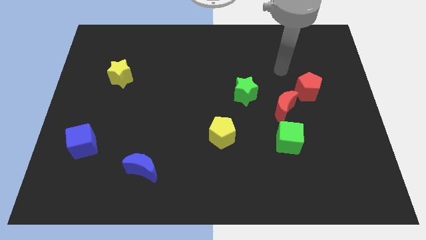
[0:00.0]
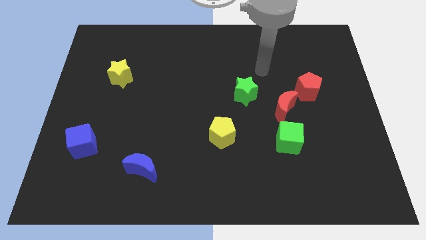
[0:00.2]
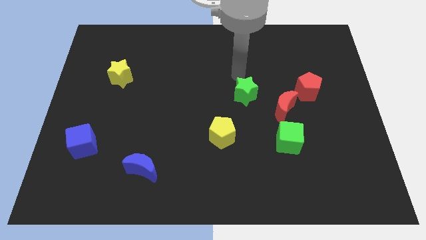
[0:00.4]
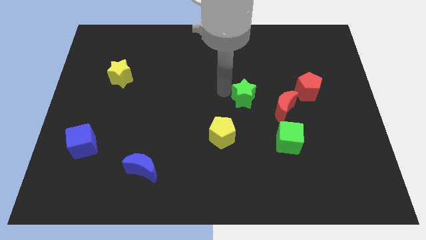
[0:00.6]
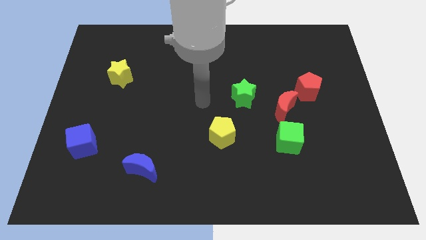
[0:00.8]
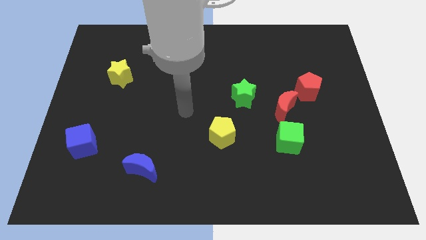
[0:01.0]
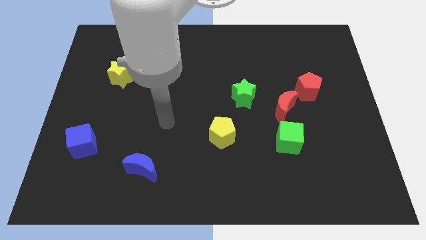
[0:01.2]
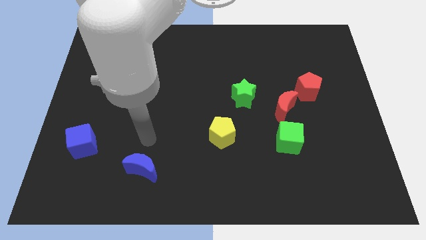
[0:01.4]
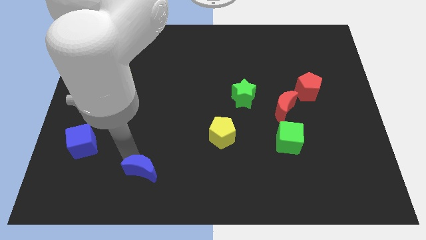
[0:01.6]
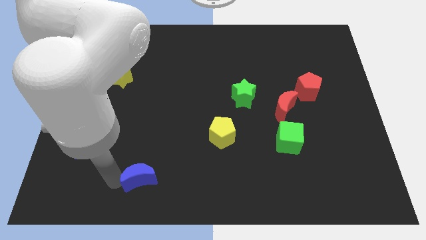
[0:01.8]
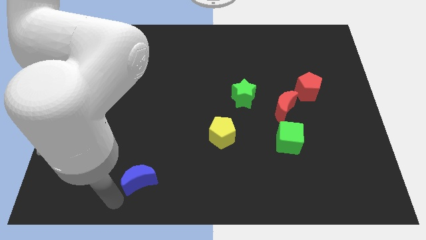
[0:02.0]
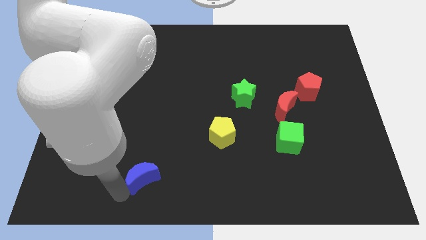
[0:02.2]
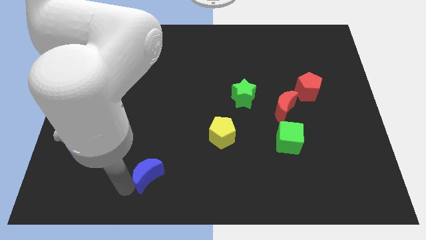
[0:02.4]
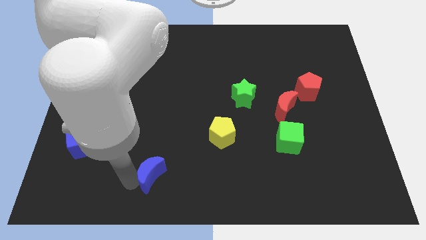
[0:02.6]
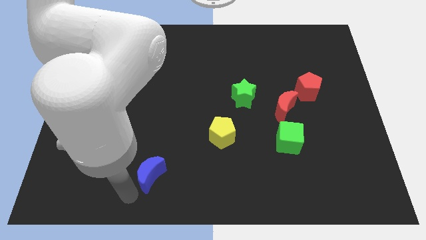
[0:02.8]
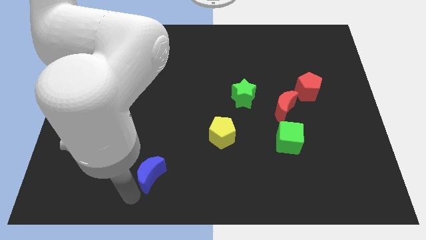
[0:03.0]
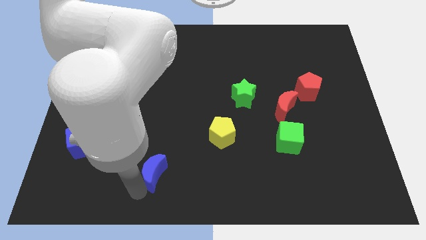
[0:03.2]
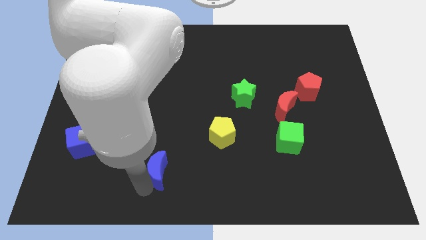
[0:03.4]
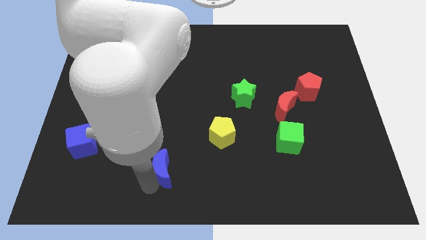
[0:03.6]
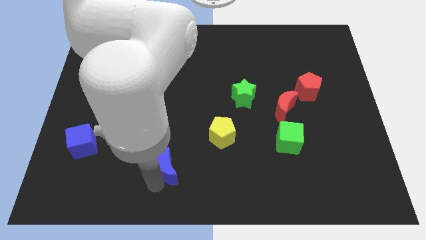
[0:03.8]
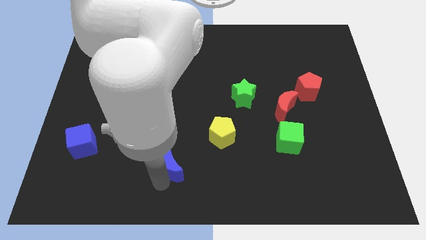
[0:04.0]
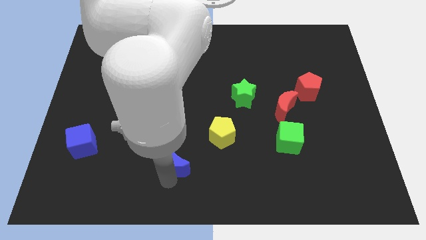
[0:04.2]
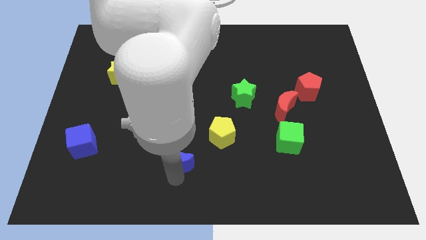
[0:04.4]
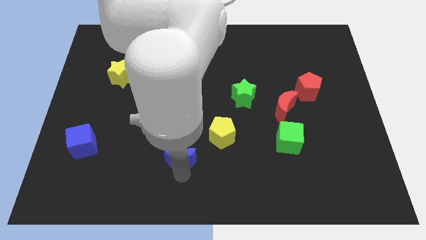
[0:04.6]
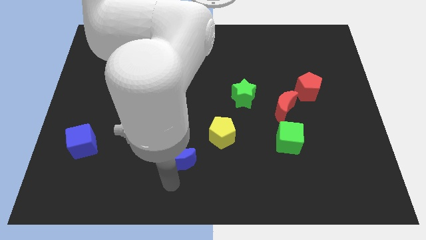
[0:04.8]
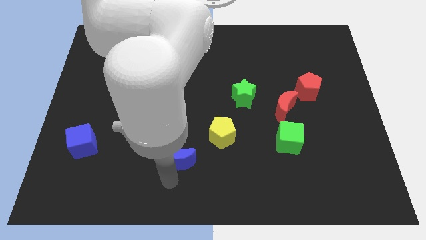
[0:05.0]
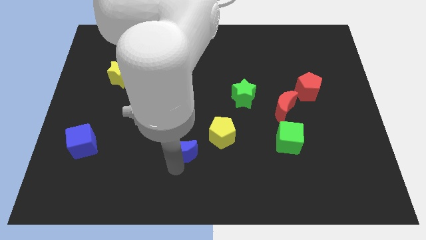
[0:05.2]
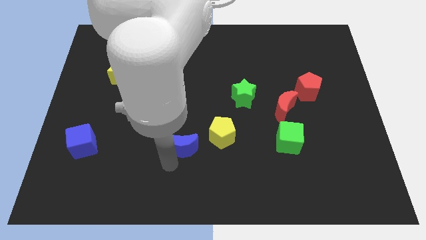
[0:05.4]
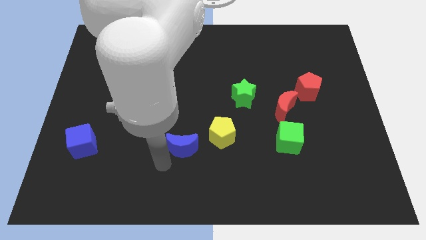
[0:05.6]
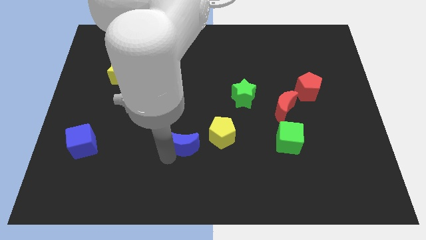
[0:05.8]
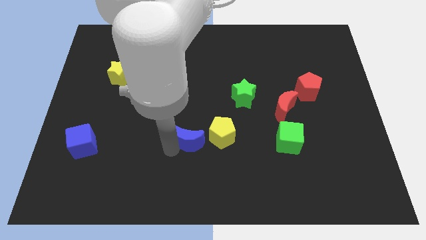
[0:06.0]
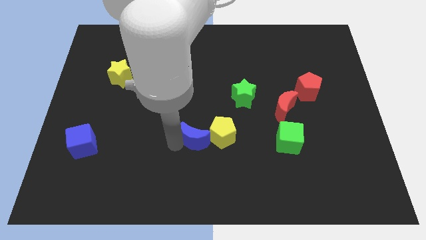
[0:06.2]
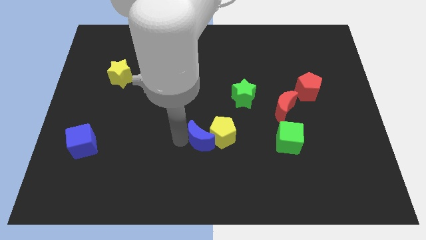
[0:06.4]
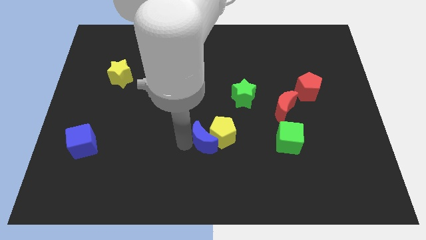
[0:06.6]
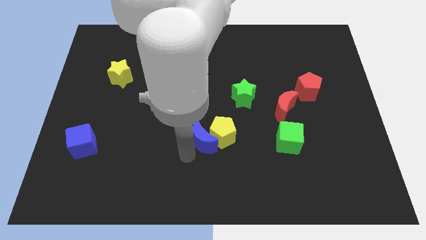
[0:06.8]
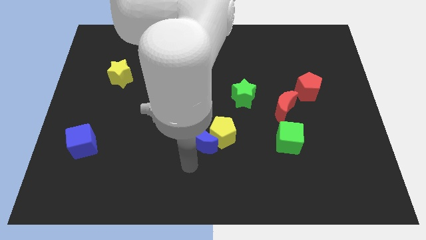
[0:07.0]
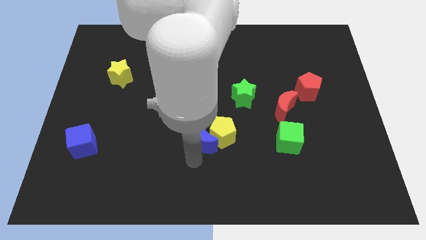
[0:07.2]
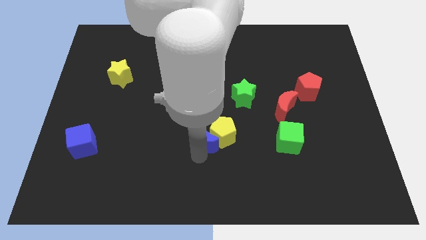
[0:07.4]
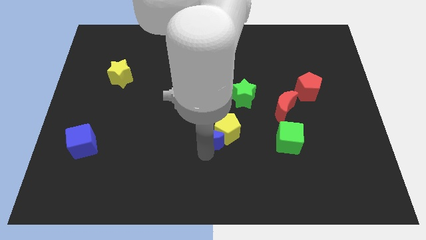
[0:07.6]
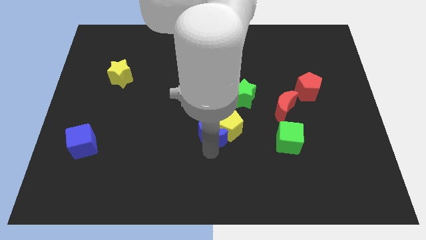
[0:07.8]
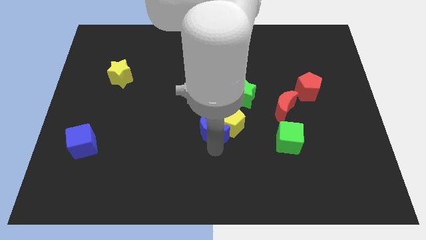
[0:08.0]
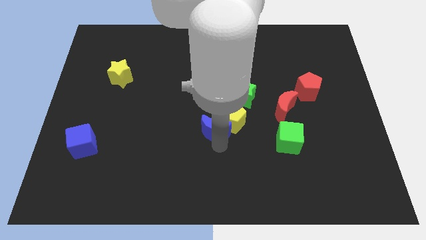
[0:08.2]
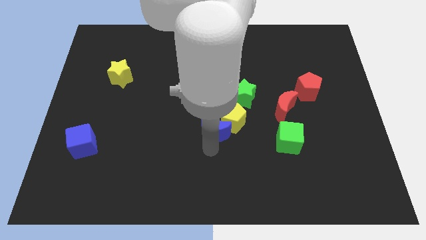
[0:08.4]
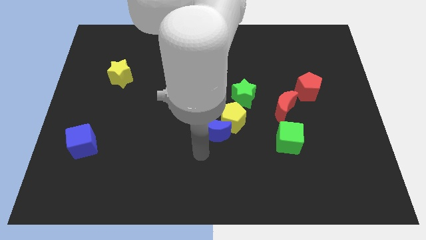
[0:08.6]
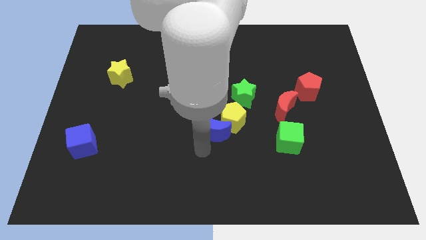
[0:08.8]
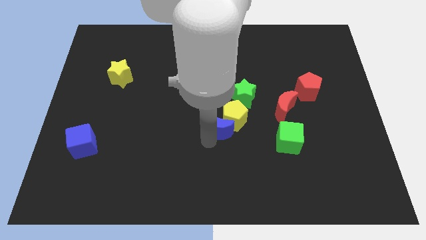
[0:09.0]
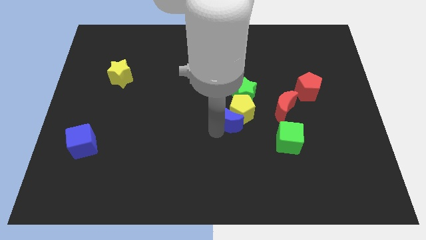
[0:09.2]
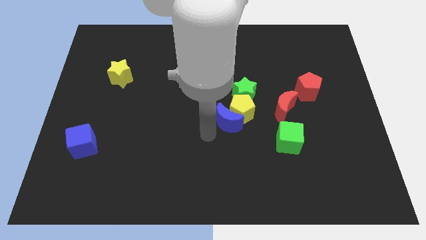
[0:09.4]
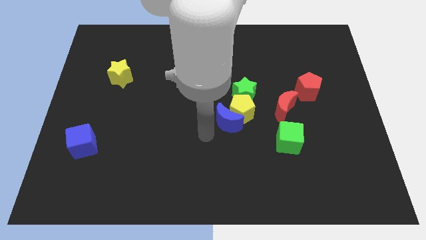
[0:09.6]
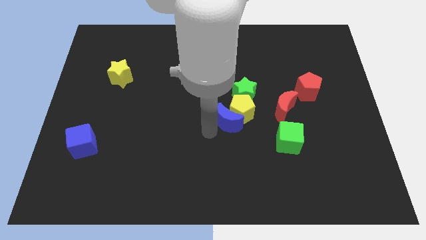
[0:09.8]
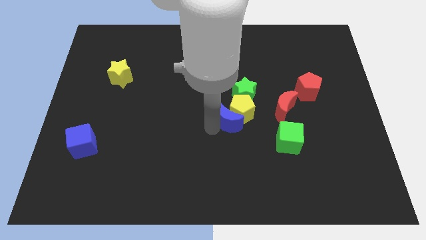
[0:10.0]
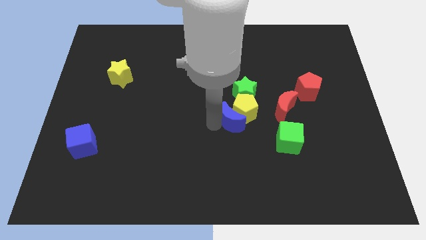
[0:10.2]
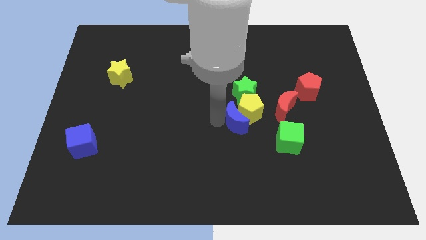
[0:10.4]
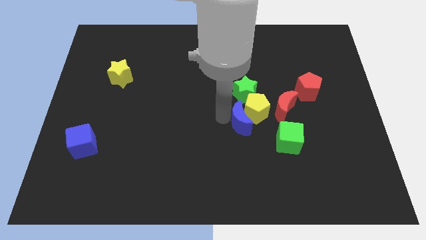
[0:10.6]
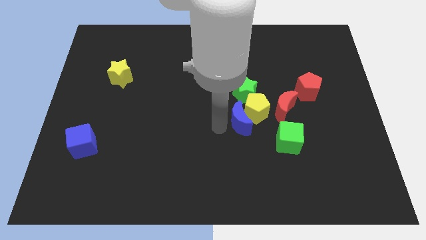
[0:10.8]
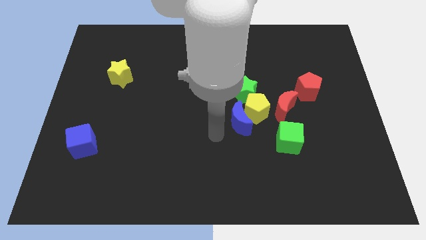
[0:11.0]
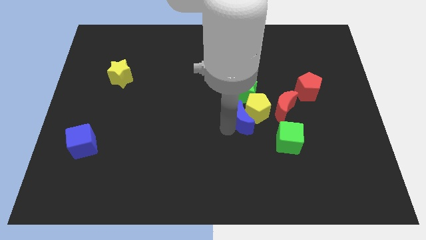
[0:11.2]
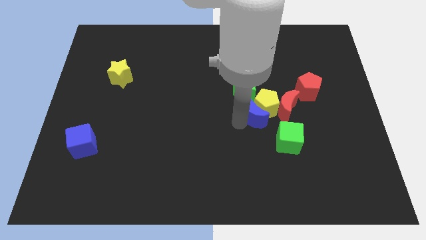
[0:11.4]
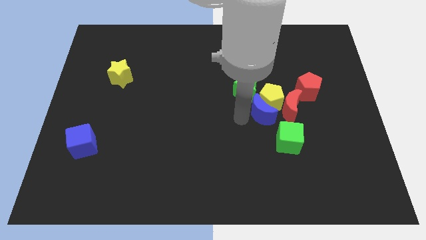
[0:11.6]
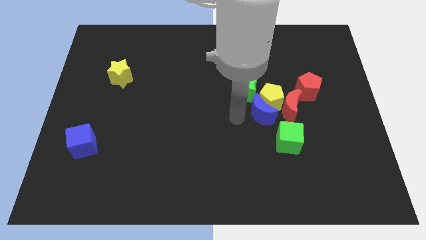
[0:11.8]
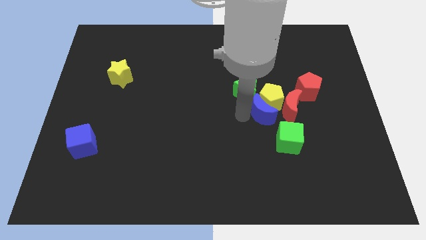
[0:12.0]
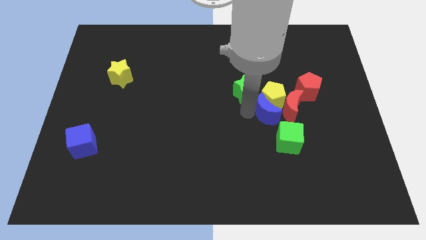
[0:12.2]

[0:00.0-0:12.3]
push the blue moon close to the red moon

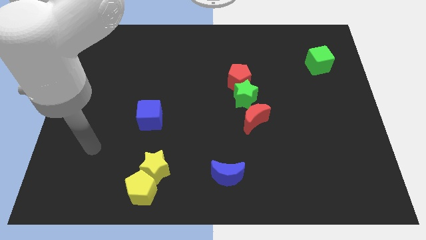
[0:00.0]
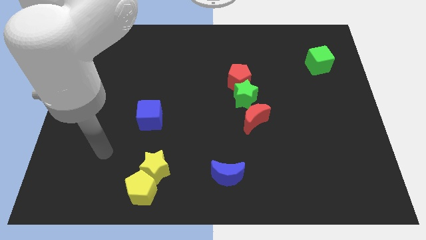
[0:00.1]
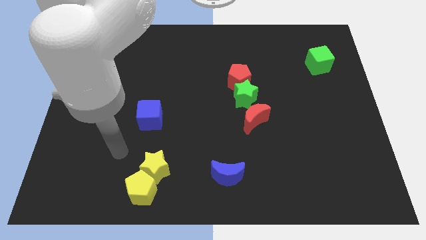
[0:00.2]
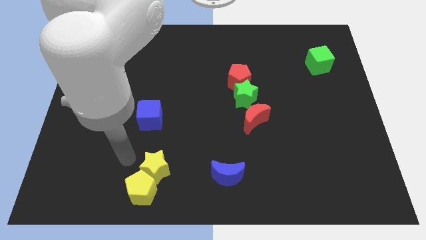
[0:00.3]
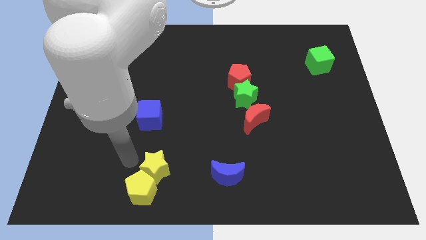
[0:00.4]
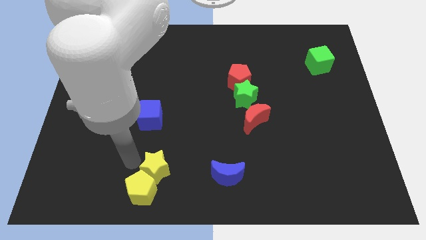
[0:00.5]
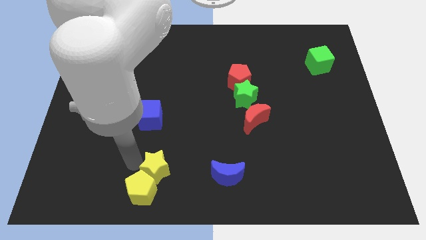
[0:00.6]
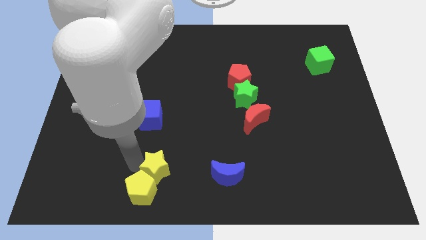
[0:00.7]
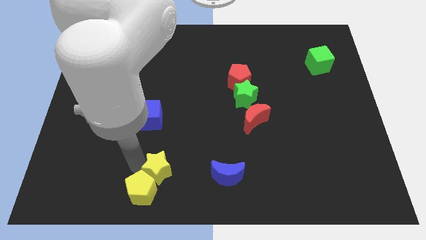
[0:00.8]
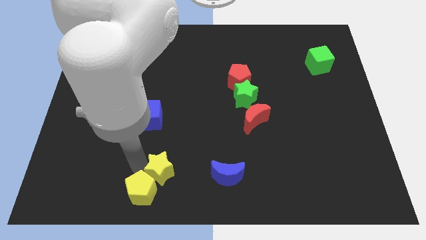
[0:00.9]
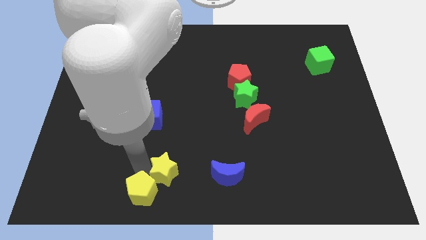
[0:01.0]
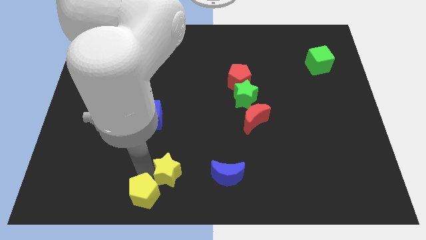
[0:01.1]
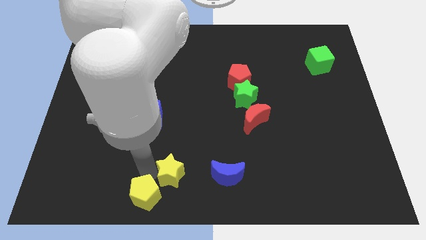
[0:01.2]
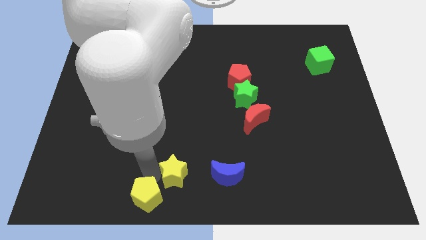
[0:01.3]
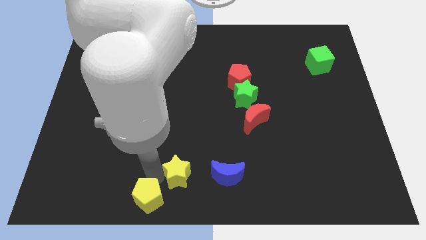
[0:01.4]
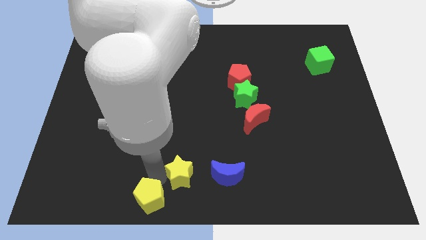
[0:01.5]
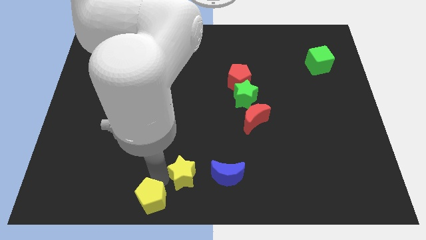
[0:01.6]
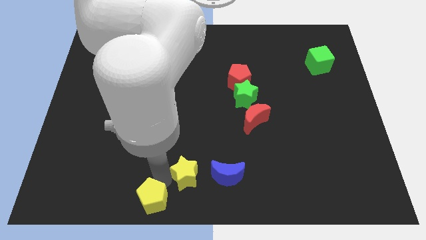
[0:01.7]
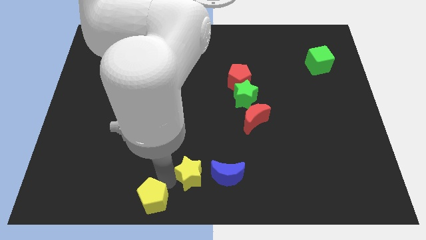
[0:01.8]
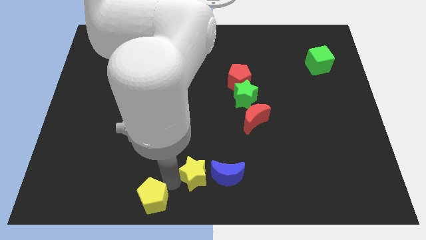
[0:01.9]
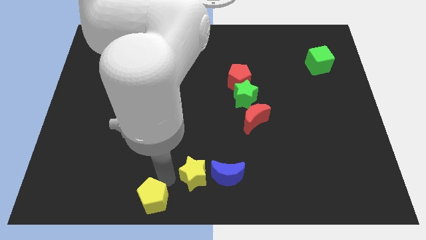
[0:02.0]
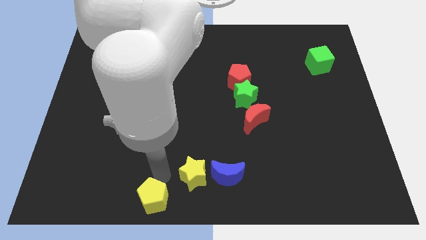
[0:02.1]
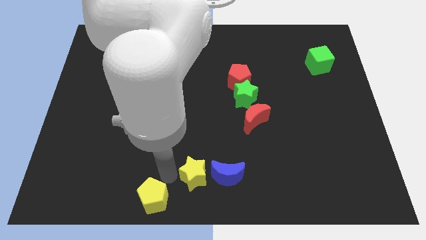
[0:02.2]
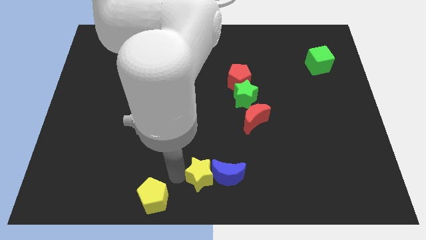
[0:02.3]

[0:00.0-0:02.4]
move the yellow star to the blue moon
